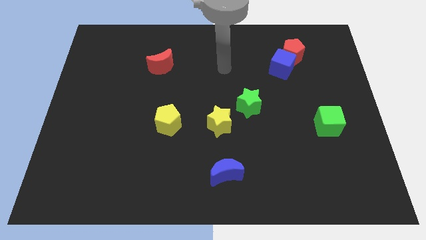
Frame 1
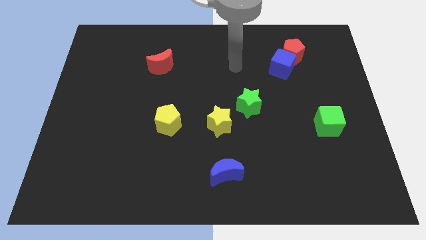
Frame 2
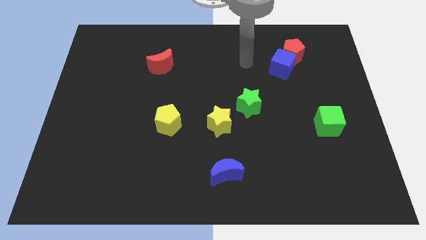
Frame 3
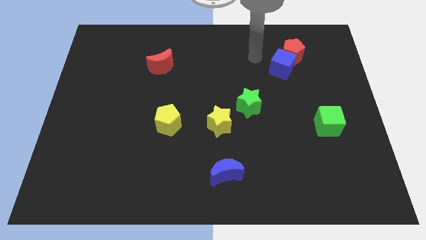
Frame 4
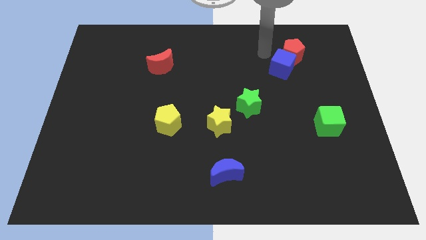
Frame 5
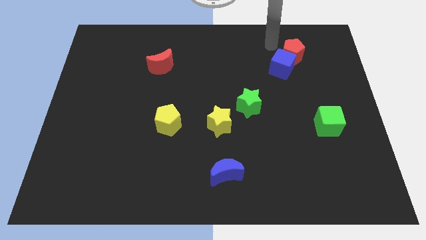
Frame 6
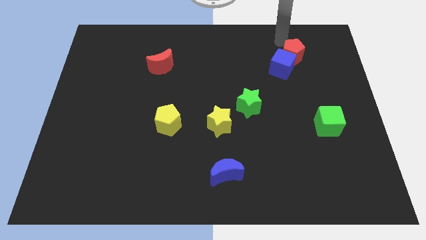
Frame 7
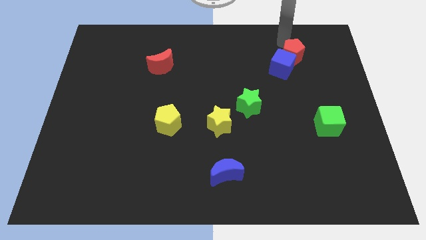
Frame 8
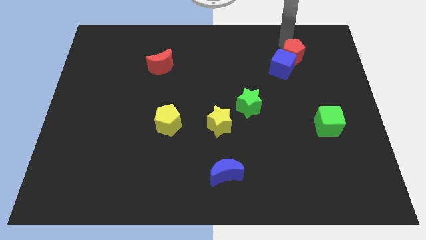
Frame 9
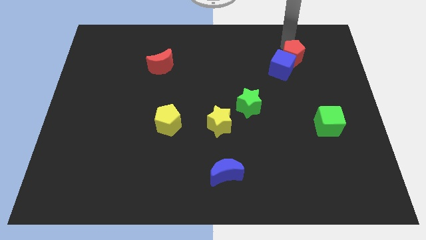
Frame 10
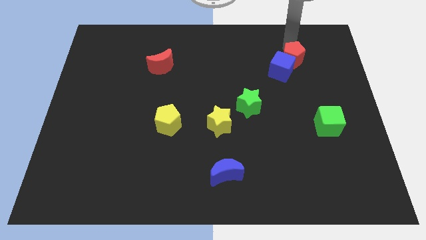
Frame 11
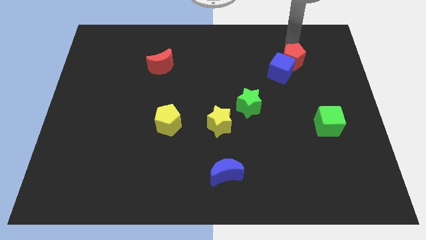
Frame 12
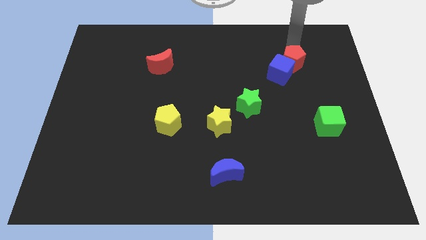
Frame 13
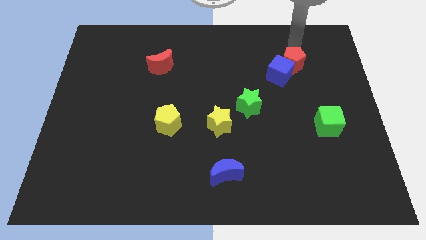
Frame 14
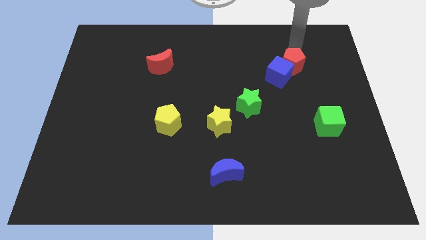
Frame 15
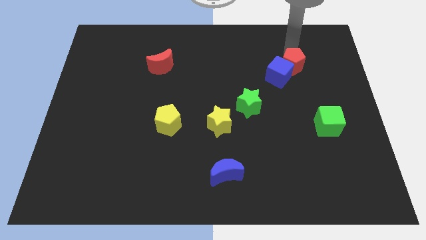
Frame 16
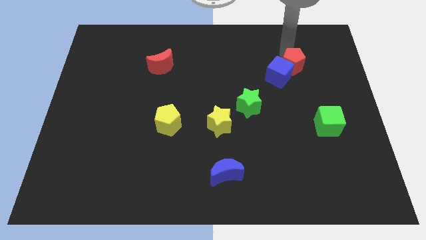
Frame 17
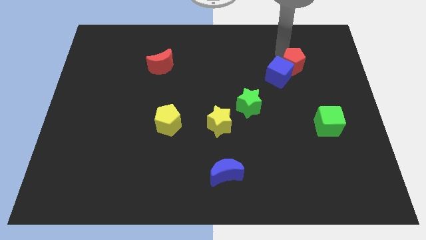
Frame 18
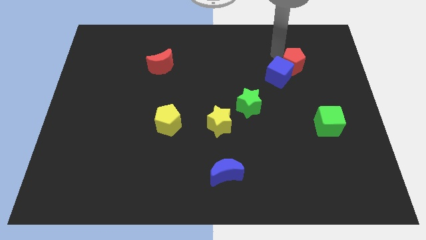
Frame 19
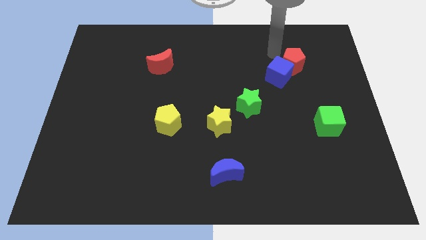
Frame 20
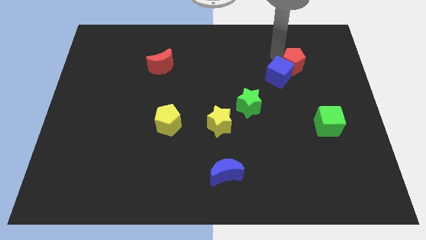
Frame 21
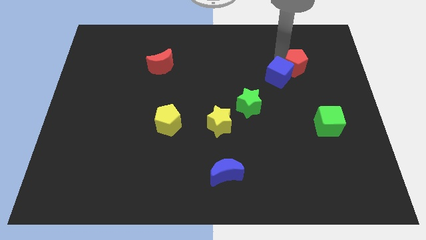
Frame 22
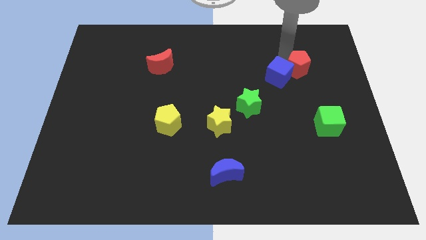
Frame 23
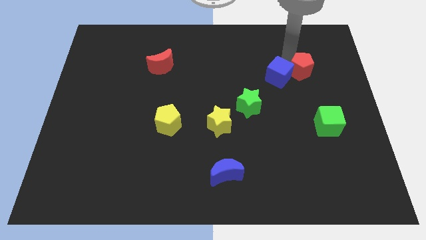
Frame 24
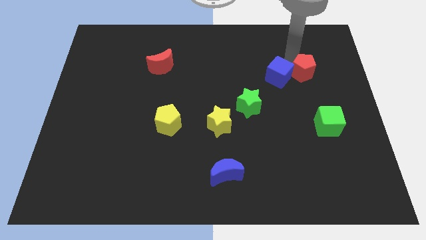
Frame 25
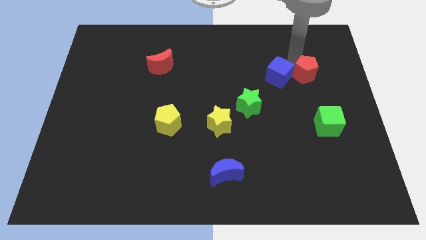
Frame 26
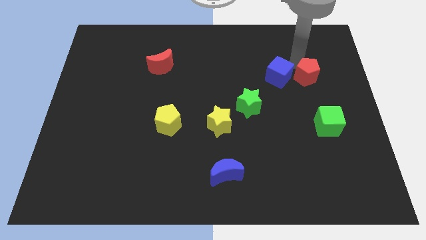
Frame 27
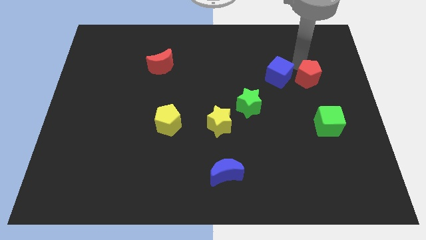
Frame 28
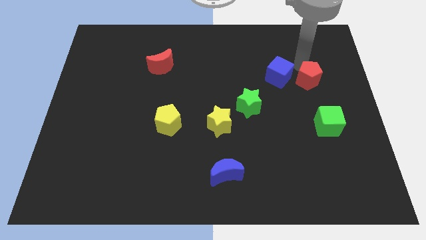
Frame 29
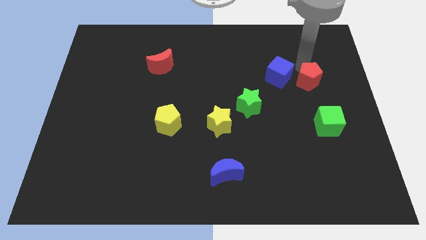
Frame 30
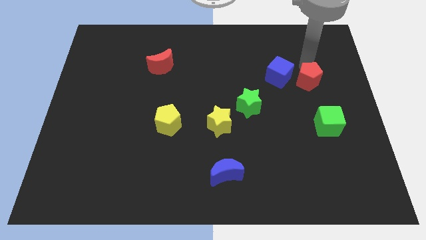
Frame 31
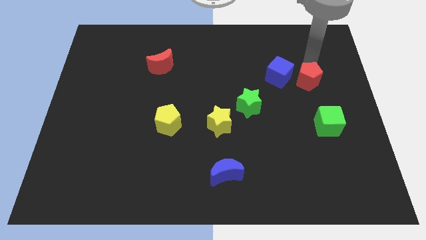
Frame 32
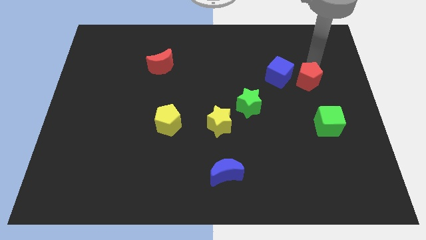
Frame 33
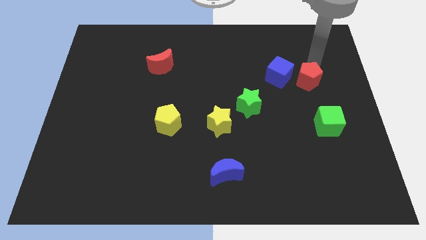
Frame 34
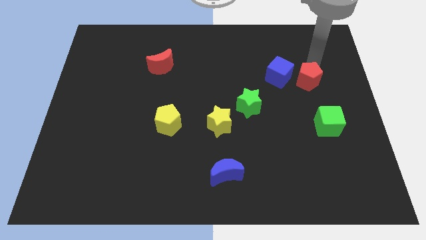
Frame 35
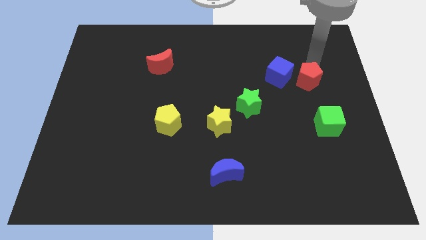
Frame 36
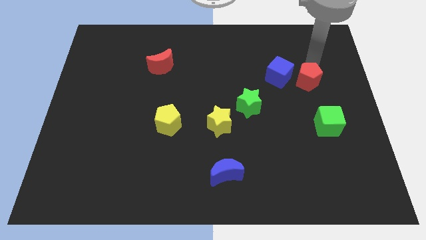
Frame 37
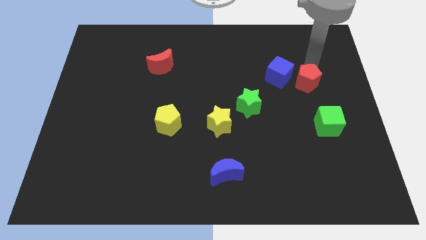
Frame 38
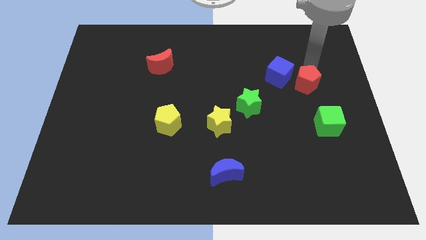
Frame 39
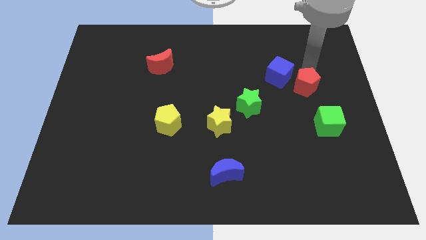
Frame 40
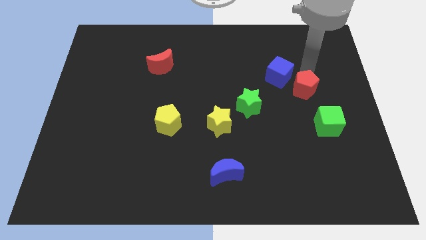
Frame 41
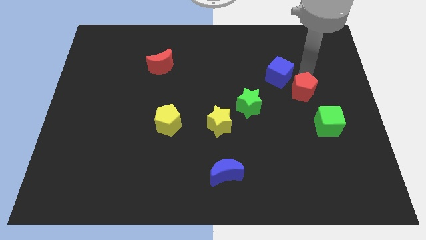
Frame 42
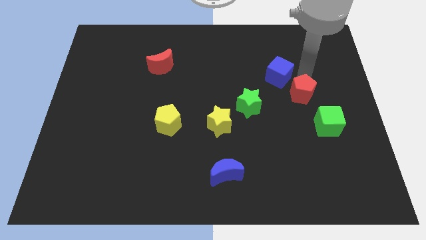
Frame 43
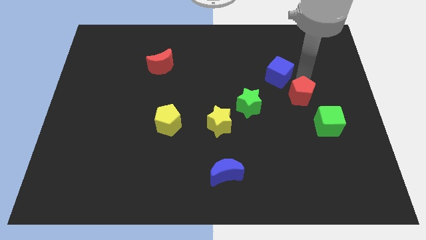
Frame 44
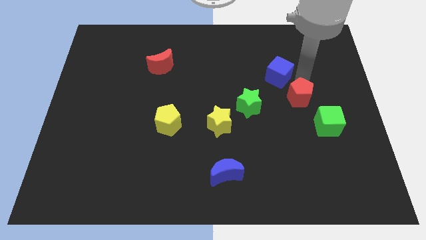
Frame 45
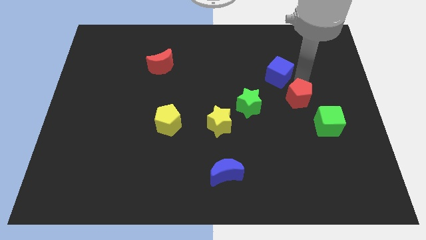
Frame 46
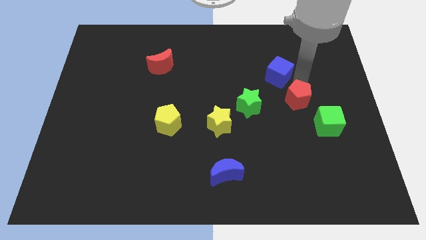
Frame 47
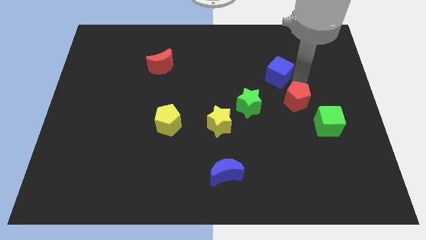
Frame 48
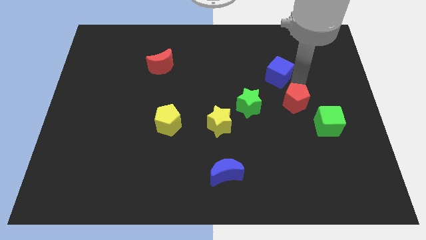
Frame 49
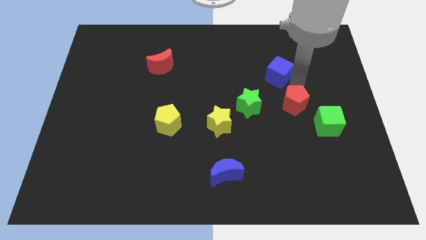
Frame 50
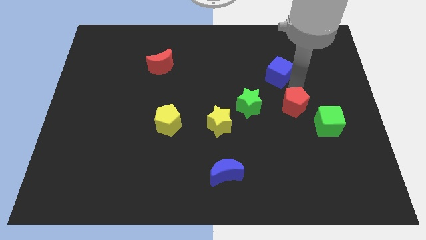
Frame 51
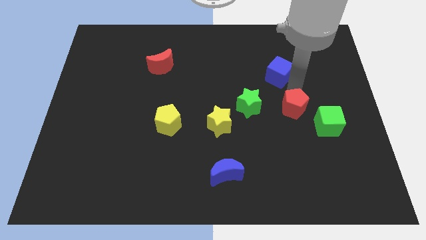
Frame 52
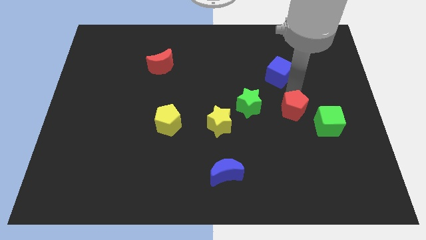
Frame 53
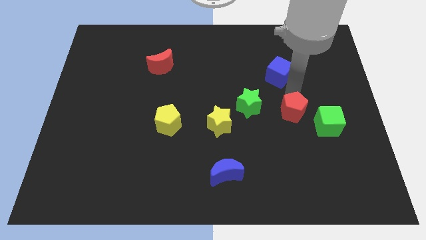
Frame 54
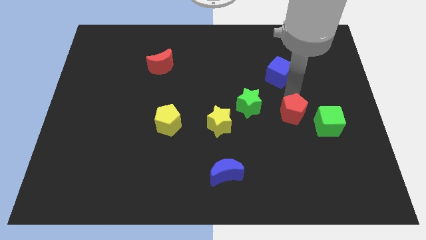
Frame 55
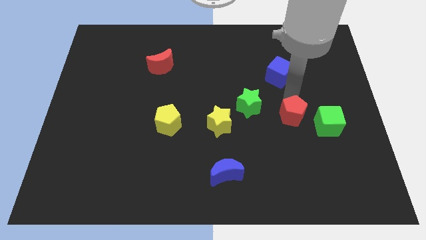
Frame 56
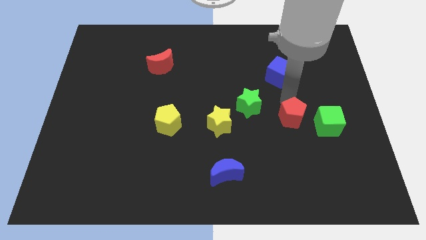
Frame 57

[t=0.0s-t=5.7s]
move the red pentagon down

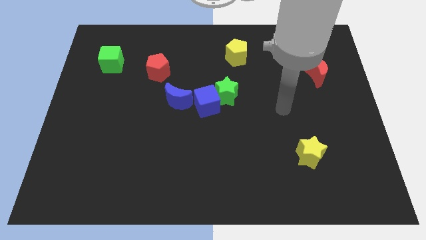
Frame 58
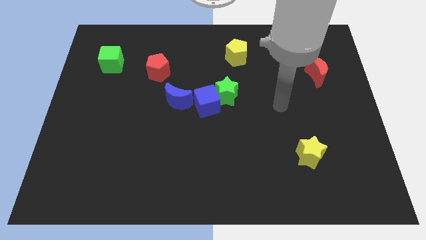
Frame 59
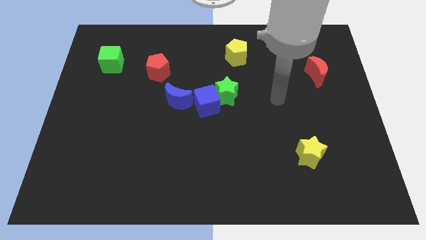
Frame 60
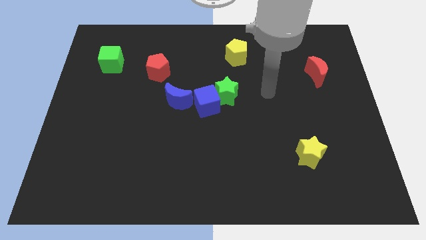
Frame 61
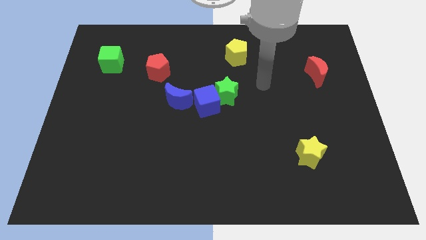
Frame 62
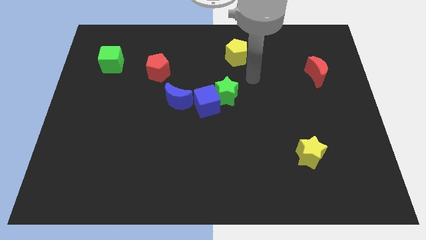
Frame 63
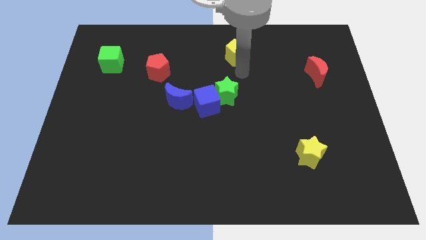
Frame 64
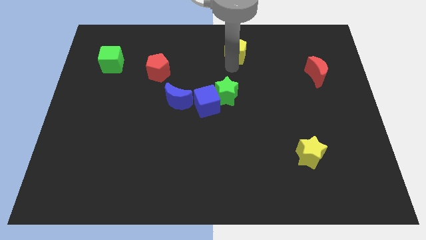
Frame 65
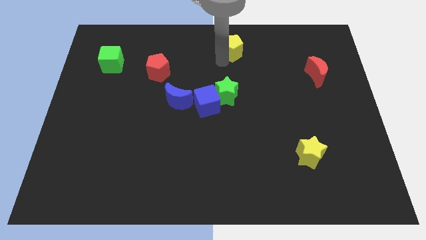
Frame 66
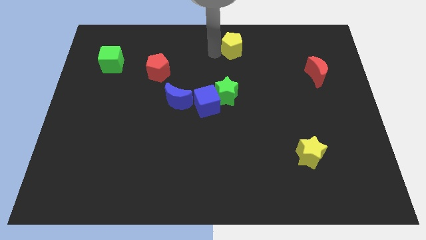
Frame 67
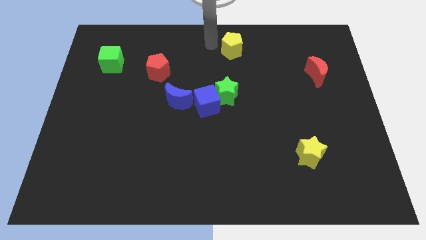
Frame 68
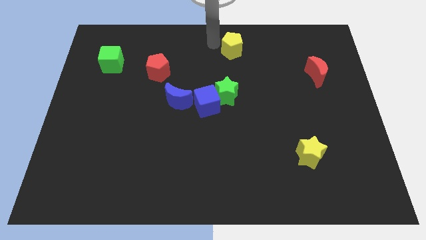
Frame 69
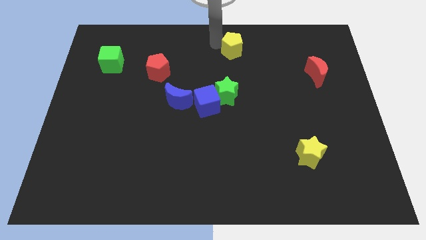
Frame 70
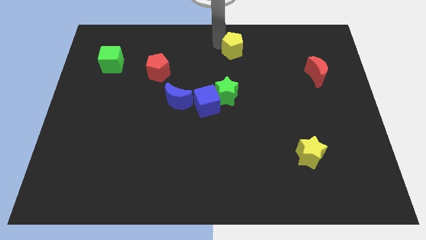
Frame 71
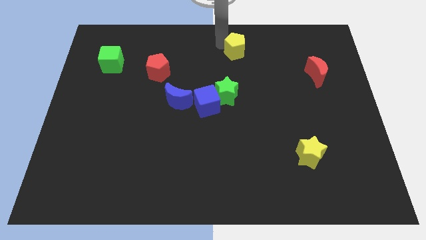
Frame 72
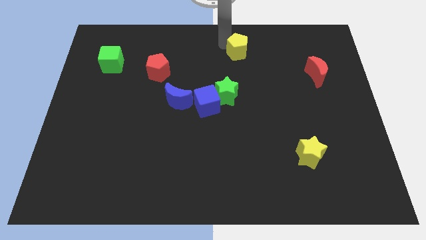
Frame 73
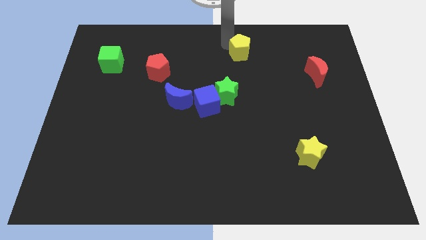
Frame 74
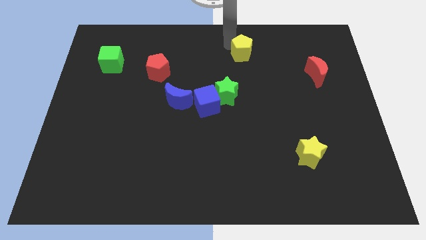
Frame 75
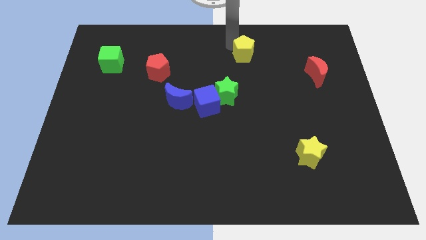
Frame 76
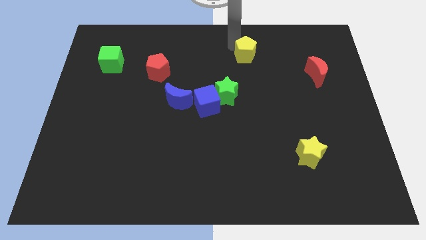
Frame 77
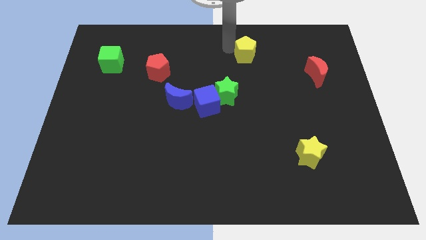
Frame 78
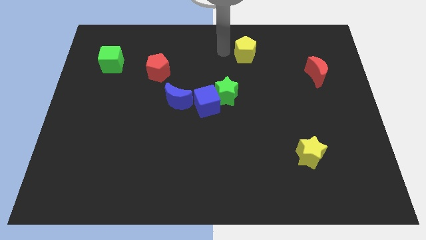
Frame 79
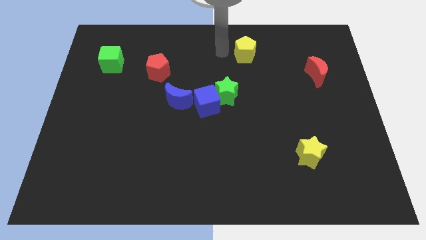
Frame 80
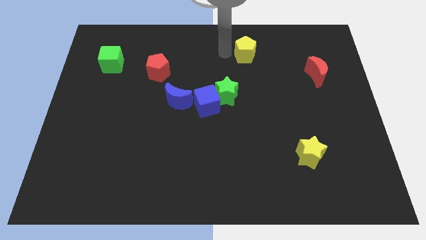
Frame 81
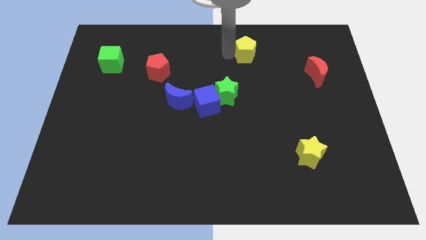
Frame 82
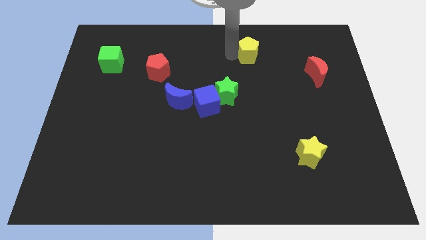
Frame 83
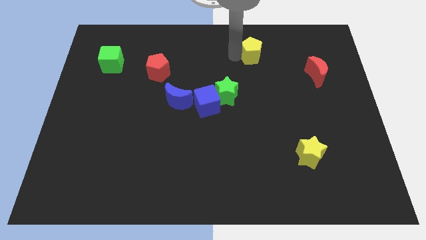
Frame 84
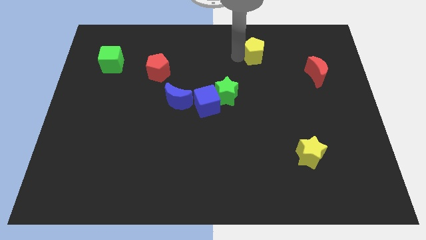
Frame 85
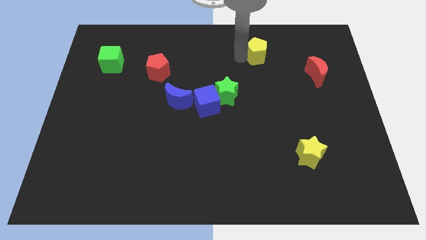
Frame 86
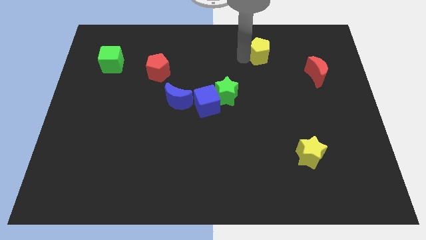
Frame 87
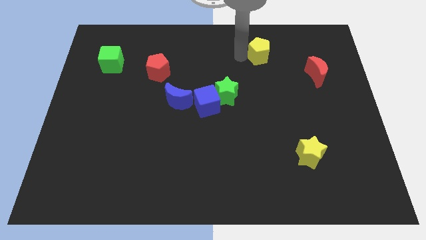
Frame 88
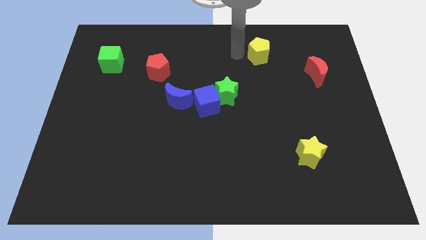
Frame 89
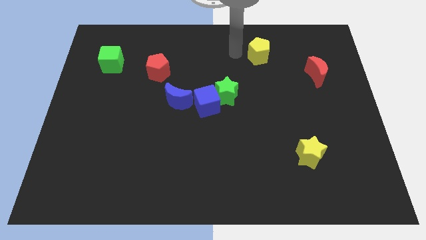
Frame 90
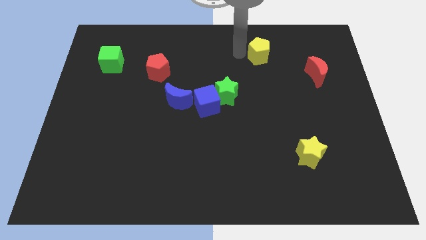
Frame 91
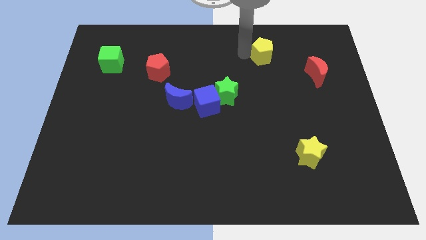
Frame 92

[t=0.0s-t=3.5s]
slide the yellow pentagon to the right a little bit
